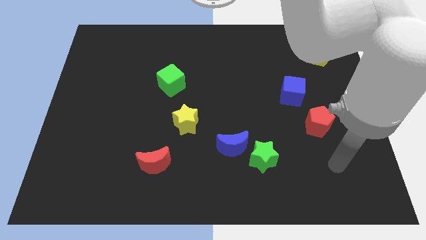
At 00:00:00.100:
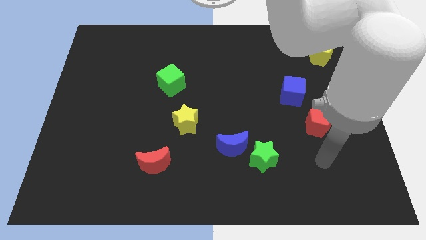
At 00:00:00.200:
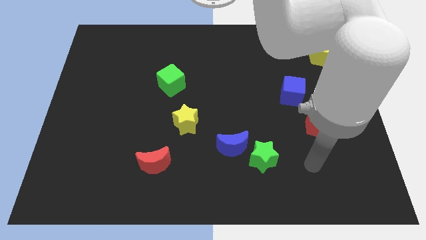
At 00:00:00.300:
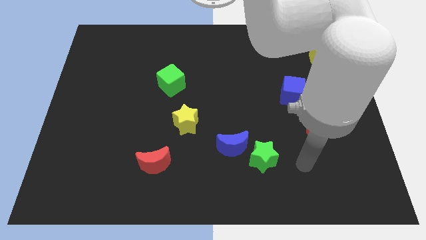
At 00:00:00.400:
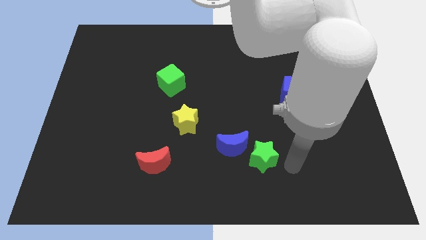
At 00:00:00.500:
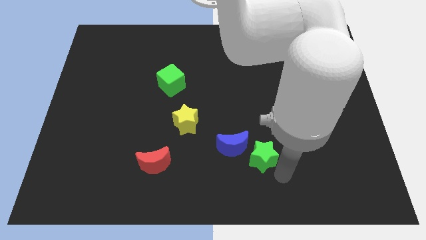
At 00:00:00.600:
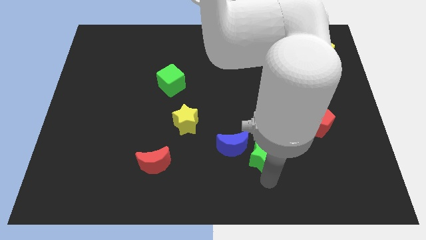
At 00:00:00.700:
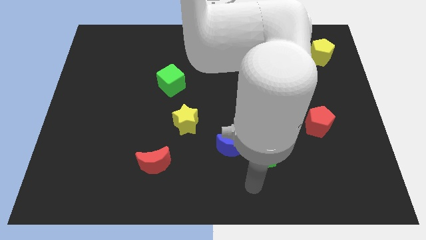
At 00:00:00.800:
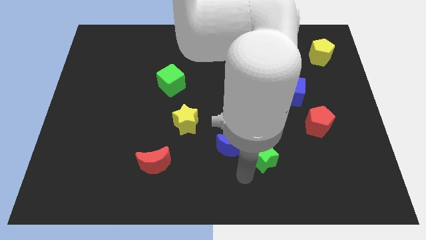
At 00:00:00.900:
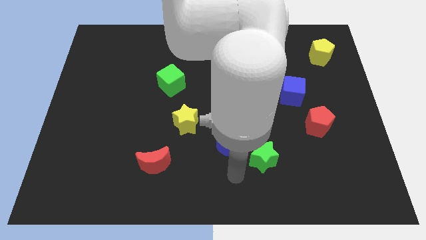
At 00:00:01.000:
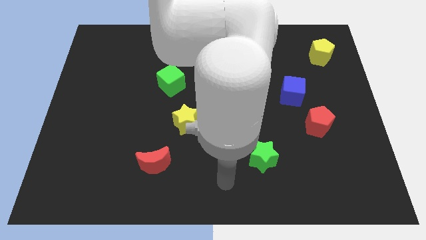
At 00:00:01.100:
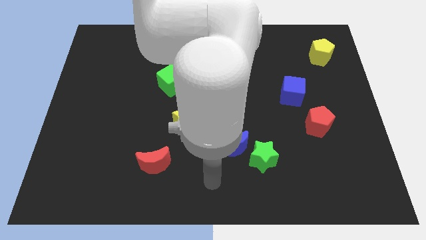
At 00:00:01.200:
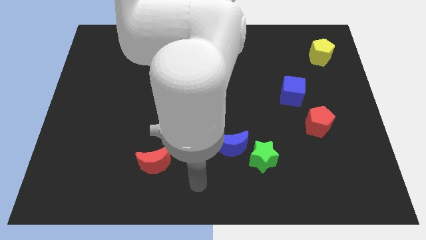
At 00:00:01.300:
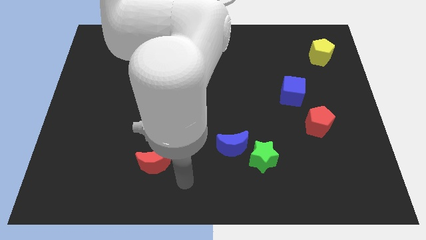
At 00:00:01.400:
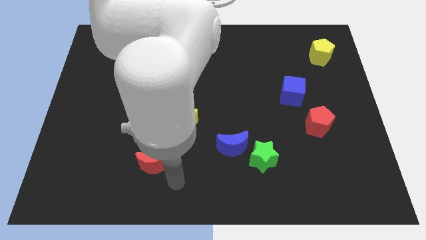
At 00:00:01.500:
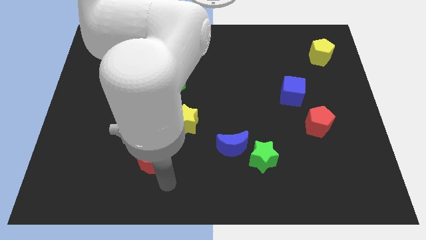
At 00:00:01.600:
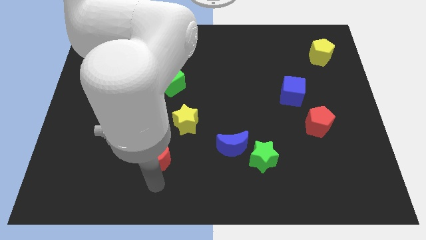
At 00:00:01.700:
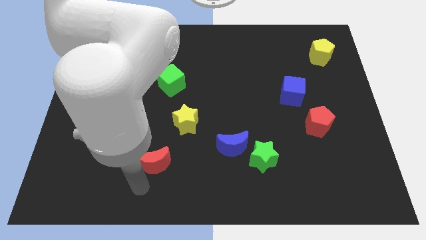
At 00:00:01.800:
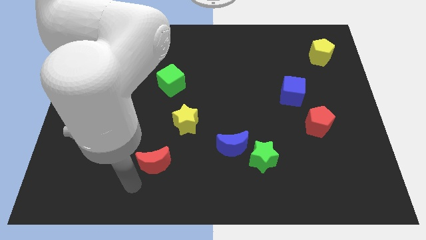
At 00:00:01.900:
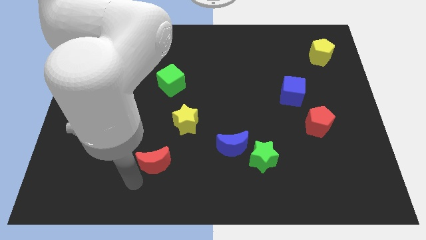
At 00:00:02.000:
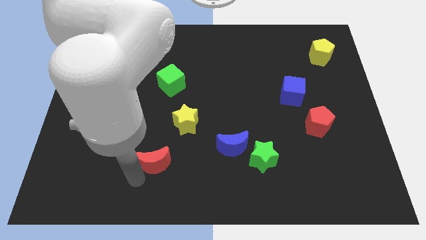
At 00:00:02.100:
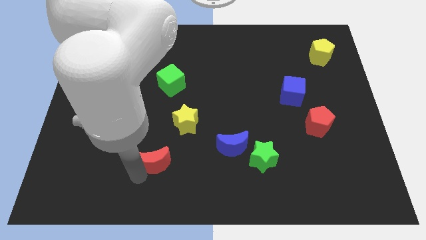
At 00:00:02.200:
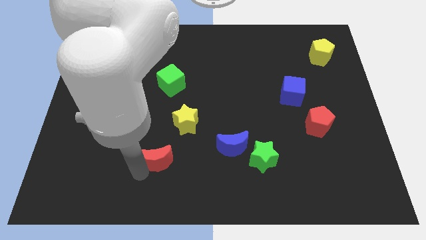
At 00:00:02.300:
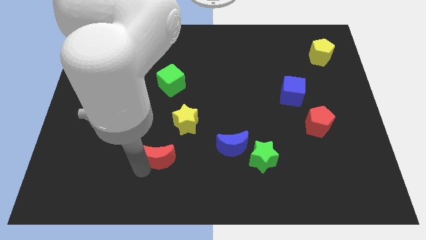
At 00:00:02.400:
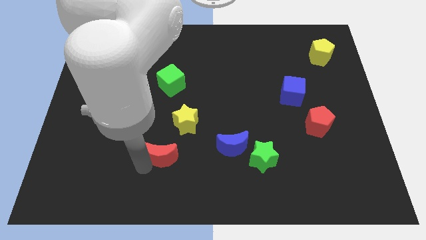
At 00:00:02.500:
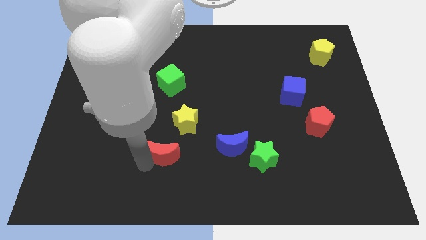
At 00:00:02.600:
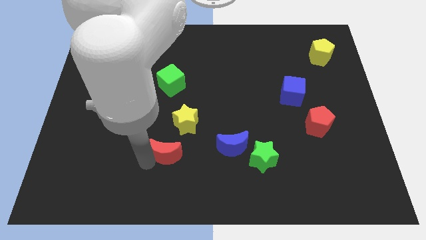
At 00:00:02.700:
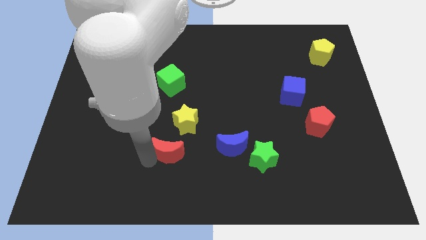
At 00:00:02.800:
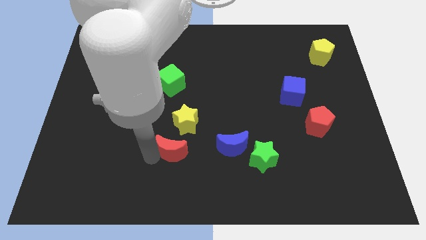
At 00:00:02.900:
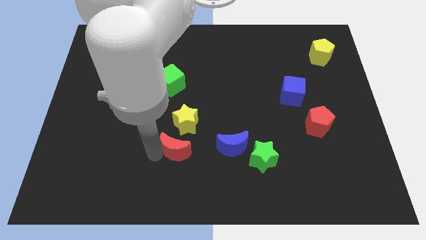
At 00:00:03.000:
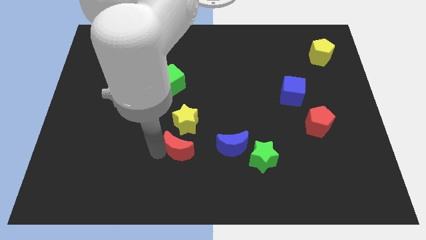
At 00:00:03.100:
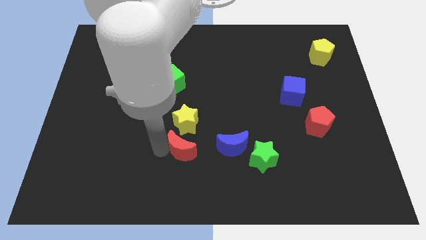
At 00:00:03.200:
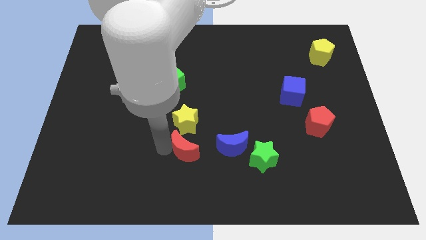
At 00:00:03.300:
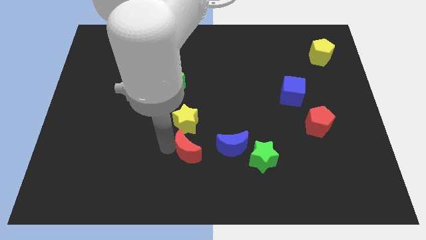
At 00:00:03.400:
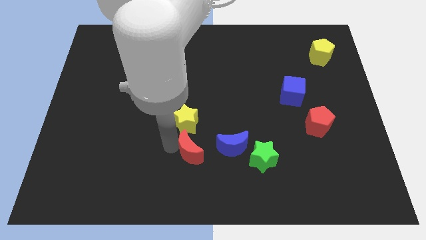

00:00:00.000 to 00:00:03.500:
push the red moon a bit diagonally up and right

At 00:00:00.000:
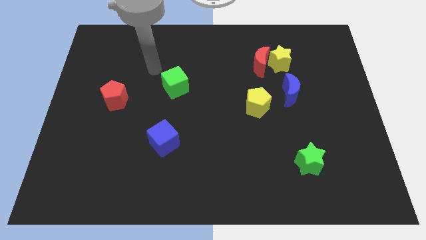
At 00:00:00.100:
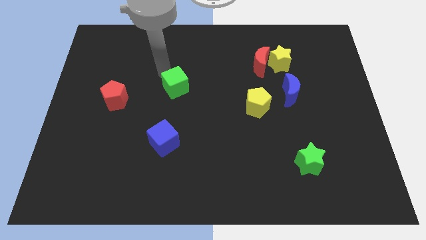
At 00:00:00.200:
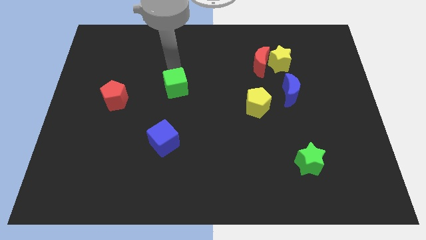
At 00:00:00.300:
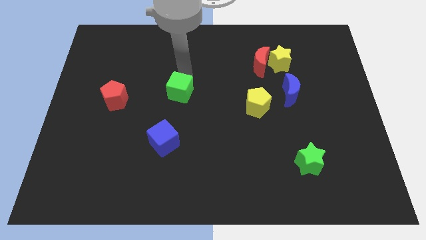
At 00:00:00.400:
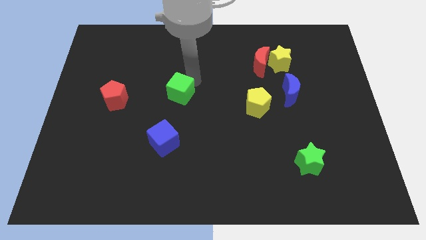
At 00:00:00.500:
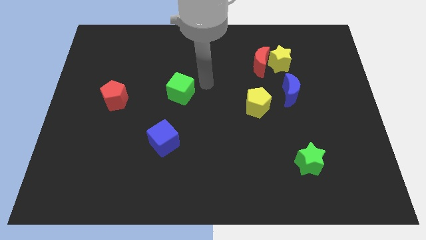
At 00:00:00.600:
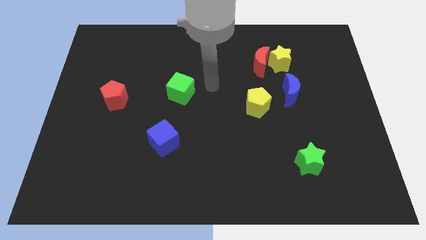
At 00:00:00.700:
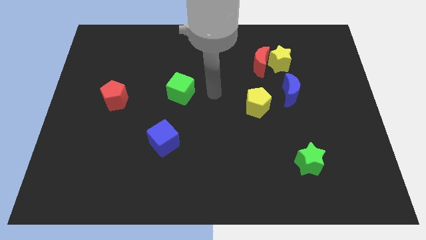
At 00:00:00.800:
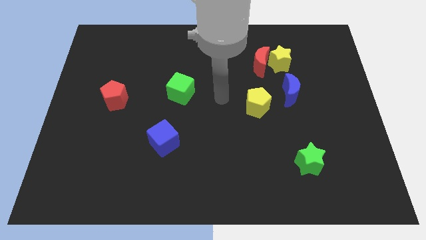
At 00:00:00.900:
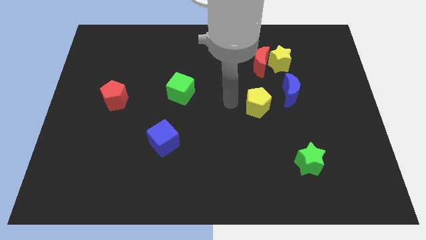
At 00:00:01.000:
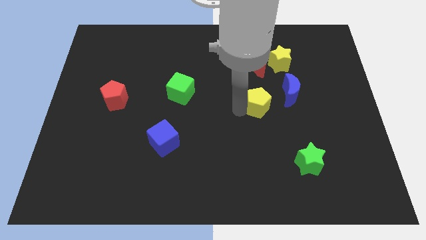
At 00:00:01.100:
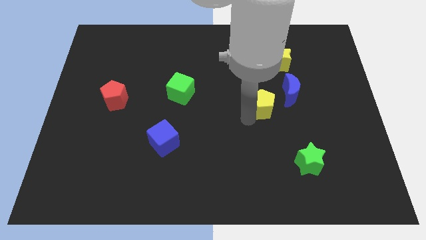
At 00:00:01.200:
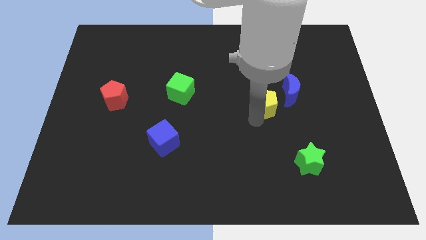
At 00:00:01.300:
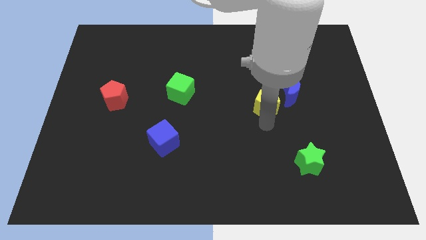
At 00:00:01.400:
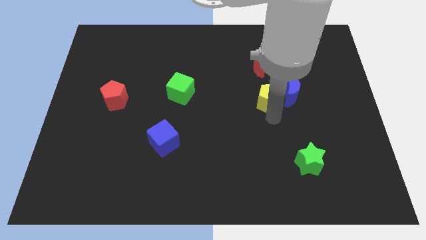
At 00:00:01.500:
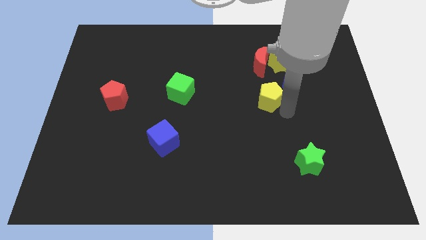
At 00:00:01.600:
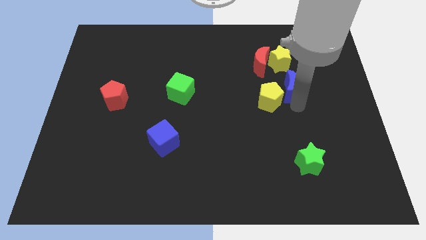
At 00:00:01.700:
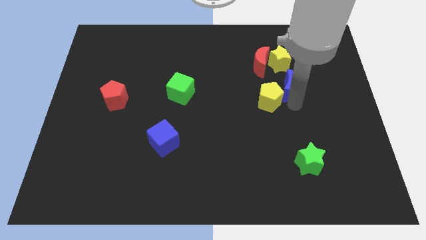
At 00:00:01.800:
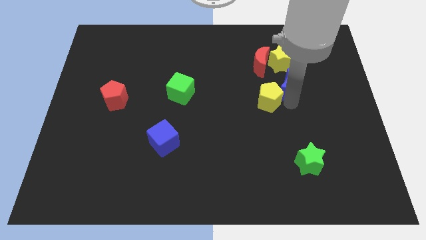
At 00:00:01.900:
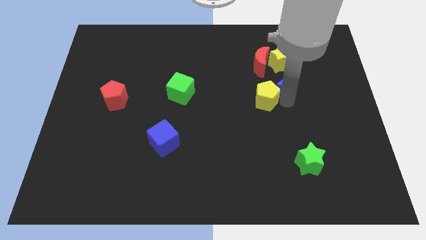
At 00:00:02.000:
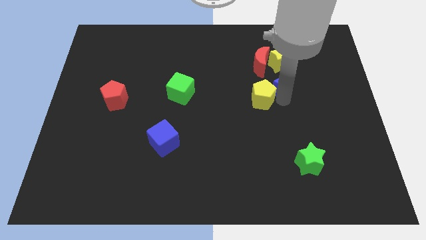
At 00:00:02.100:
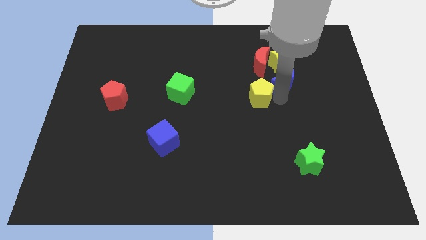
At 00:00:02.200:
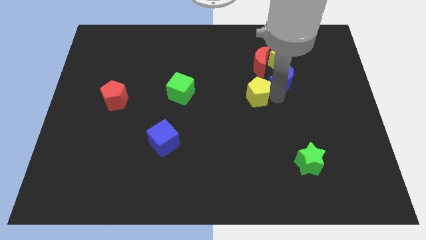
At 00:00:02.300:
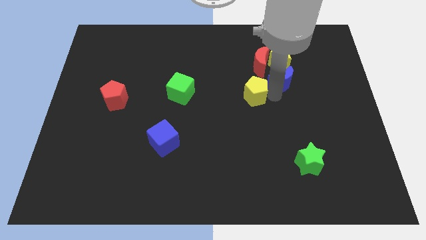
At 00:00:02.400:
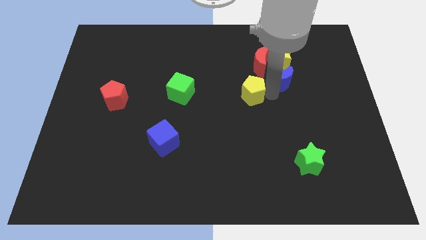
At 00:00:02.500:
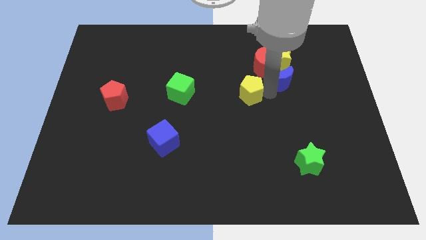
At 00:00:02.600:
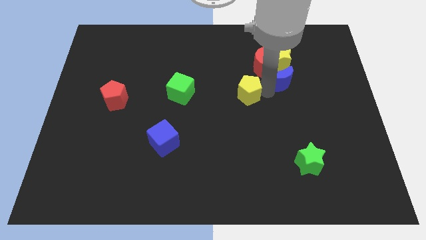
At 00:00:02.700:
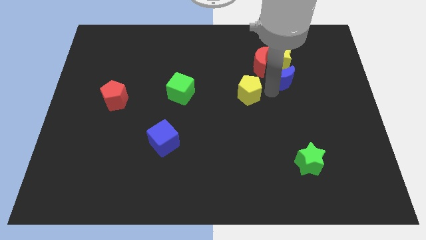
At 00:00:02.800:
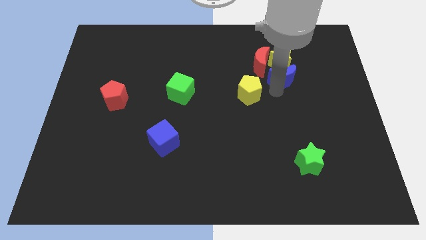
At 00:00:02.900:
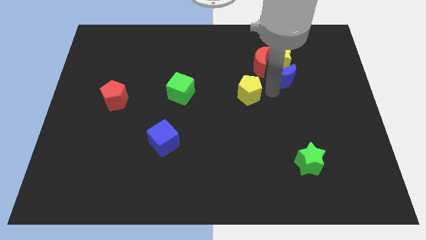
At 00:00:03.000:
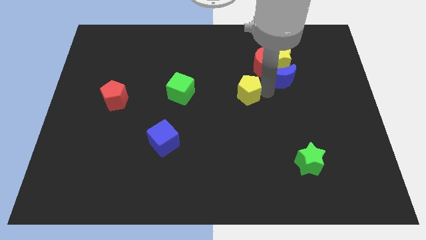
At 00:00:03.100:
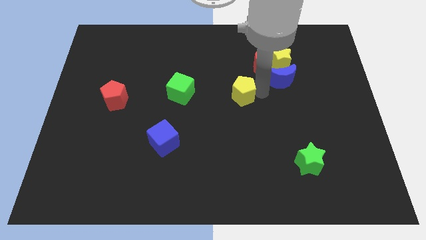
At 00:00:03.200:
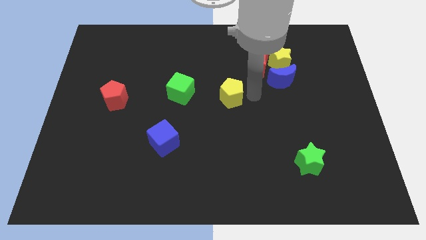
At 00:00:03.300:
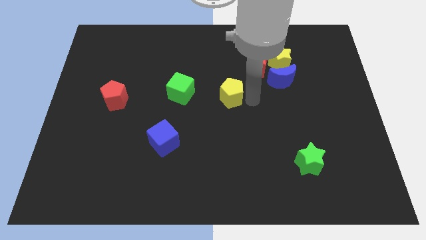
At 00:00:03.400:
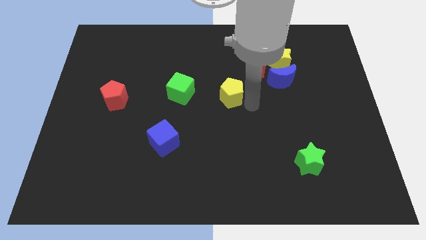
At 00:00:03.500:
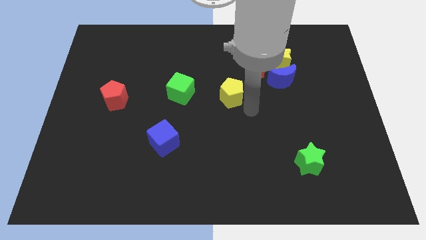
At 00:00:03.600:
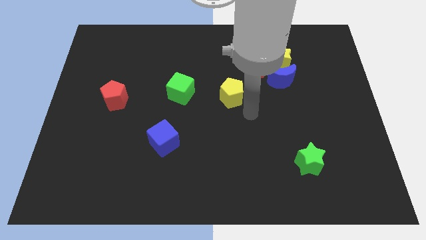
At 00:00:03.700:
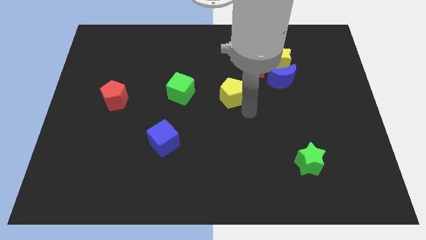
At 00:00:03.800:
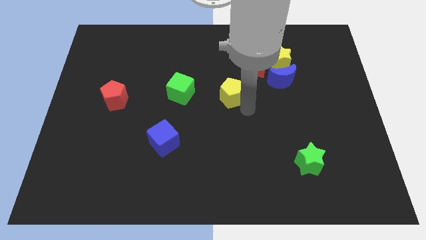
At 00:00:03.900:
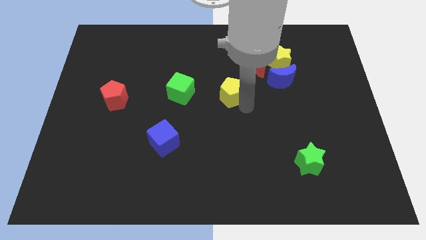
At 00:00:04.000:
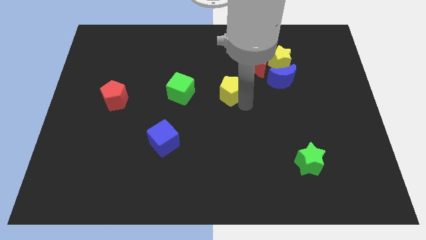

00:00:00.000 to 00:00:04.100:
move the yellow pentagon a little bit upwards and then to the left

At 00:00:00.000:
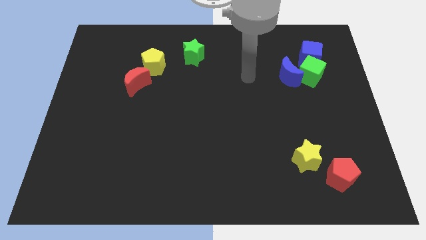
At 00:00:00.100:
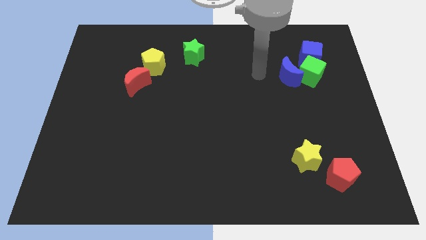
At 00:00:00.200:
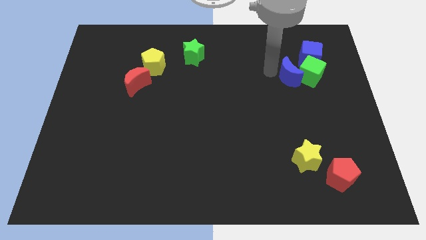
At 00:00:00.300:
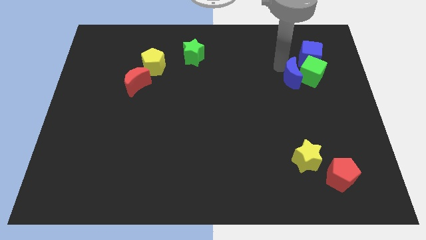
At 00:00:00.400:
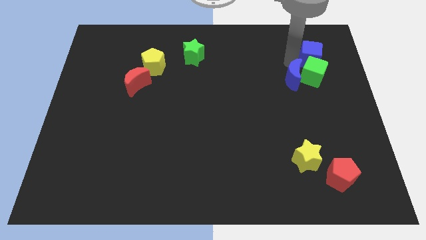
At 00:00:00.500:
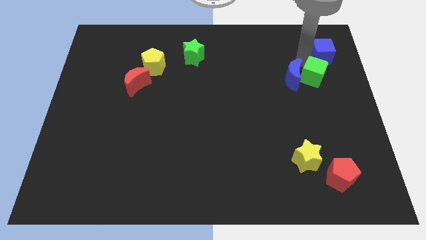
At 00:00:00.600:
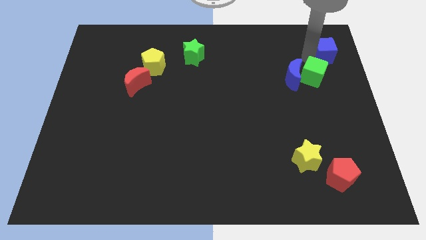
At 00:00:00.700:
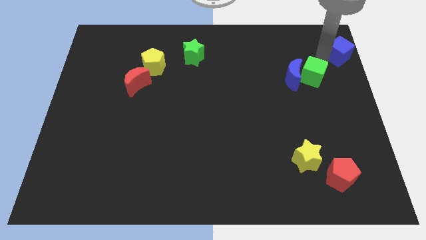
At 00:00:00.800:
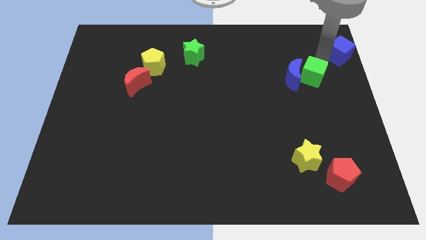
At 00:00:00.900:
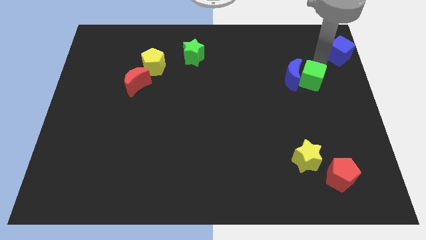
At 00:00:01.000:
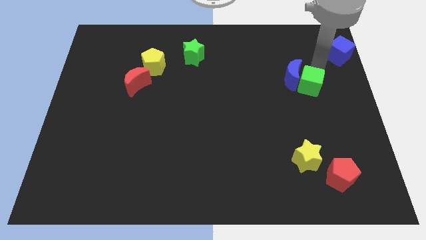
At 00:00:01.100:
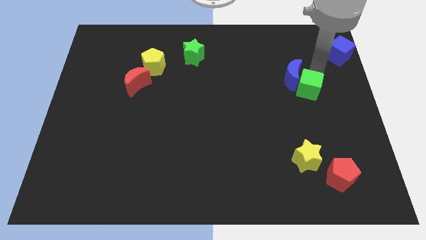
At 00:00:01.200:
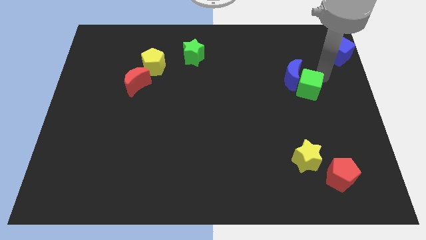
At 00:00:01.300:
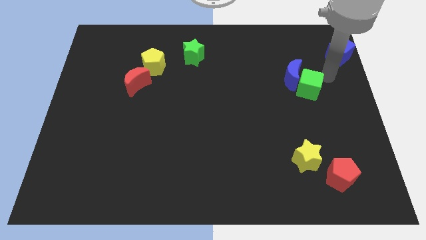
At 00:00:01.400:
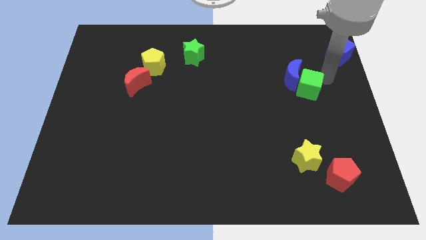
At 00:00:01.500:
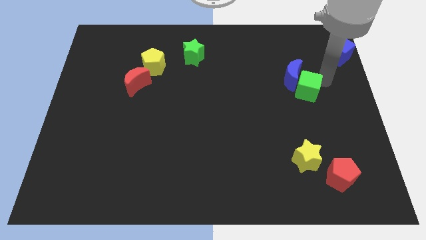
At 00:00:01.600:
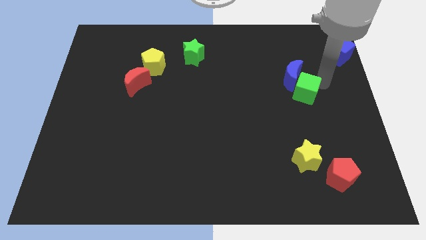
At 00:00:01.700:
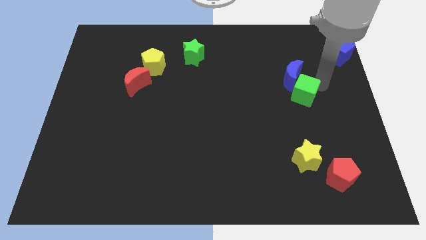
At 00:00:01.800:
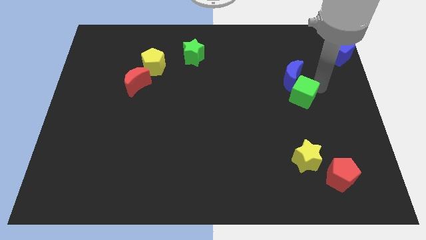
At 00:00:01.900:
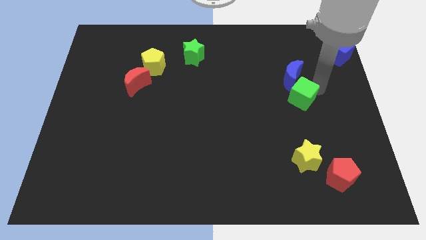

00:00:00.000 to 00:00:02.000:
slide the green cube diagonally down and left slightly
